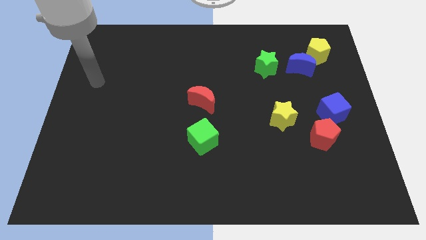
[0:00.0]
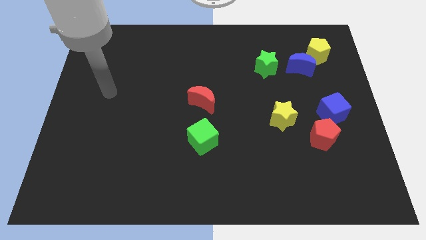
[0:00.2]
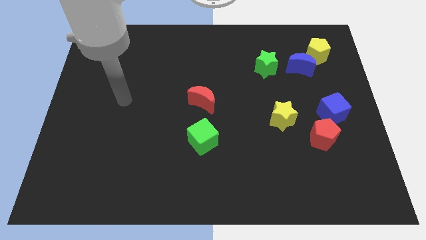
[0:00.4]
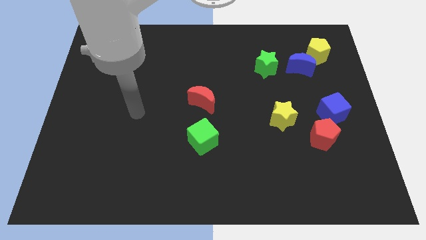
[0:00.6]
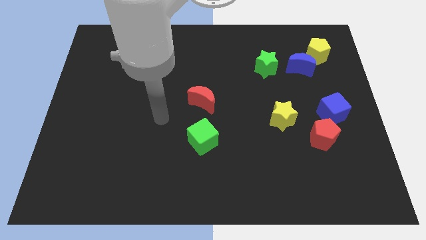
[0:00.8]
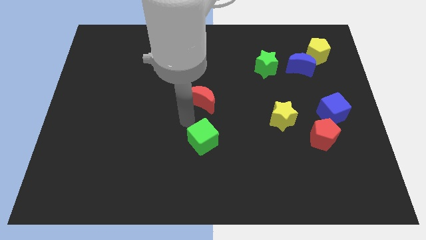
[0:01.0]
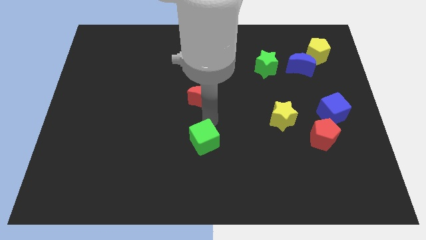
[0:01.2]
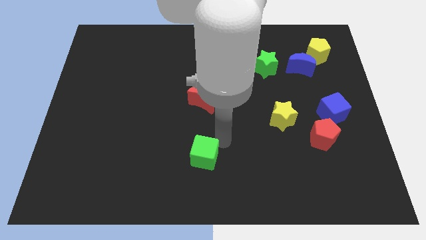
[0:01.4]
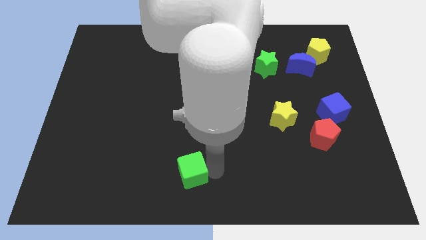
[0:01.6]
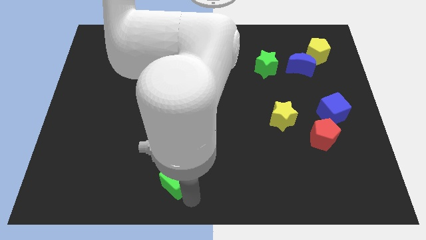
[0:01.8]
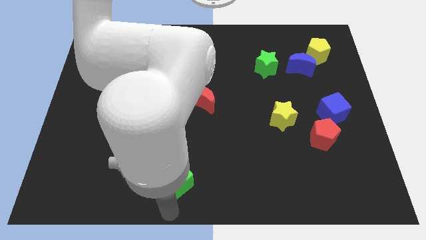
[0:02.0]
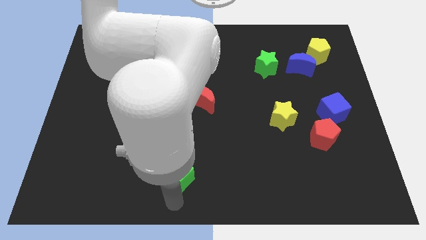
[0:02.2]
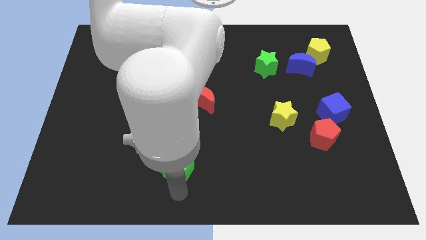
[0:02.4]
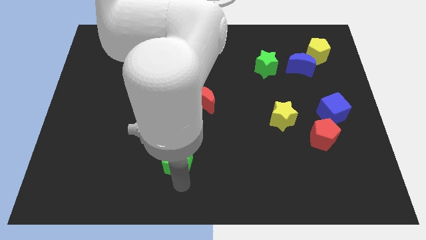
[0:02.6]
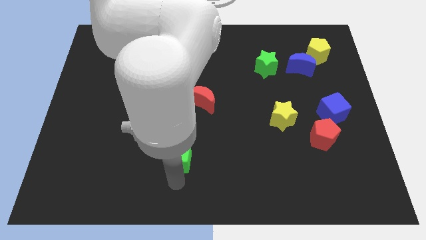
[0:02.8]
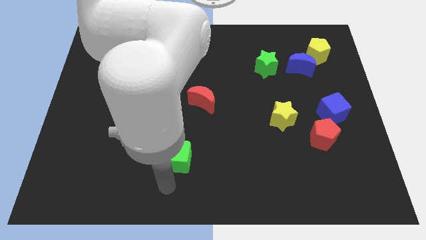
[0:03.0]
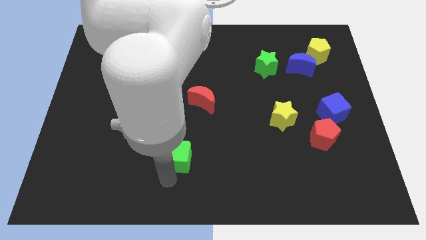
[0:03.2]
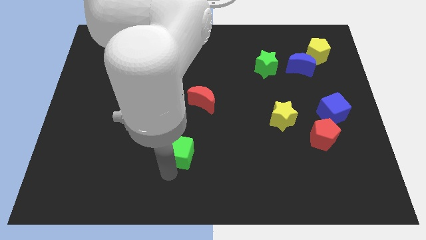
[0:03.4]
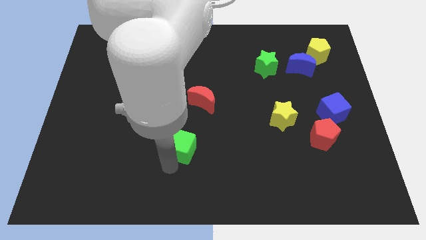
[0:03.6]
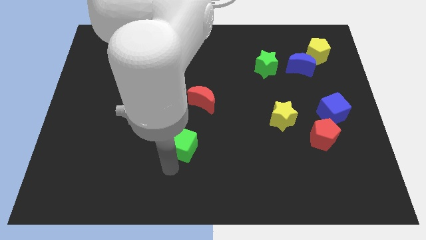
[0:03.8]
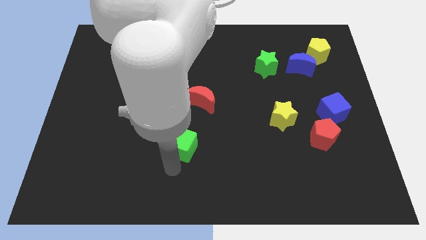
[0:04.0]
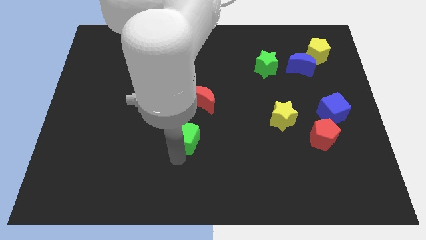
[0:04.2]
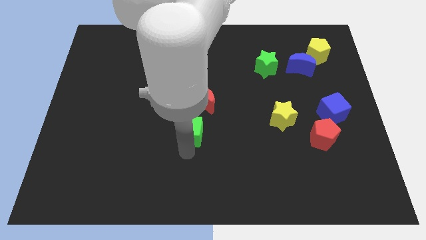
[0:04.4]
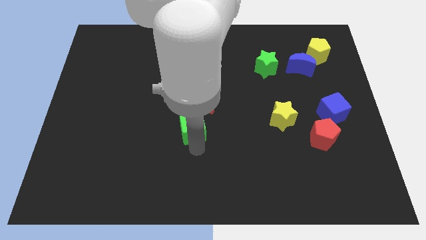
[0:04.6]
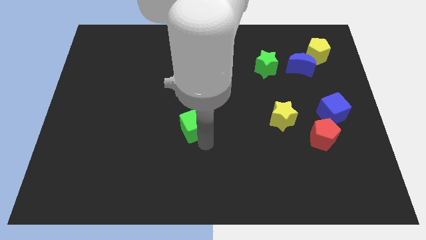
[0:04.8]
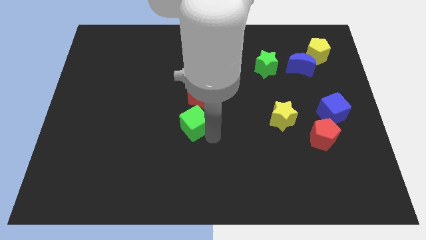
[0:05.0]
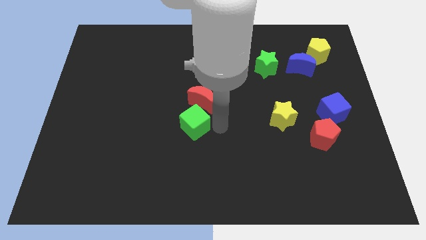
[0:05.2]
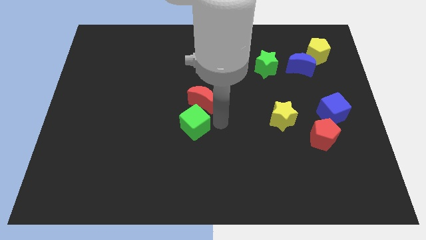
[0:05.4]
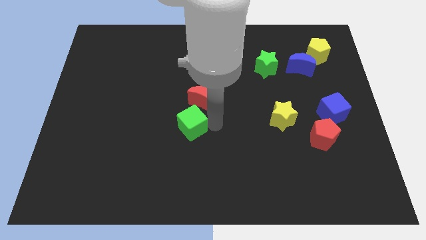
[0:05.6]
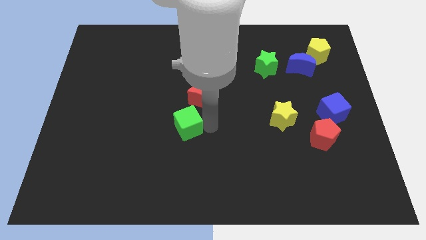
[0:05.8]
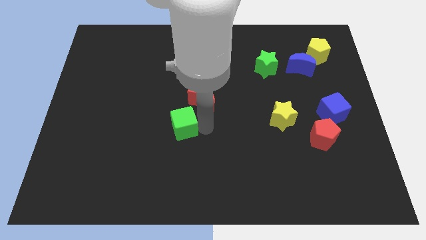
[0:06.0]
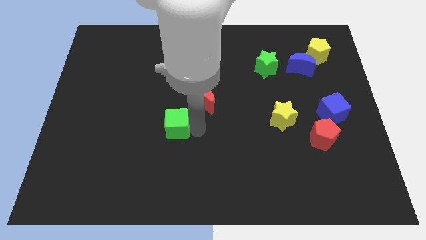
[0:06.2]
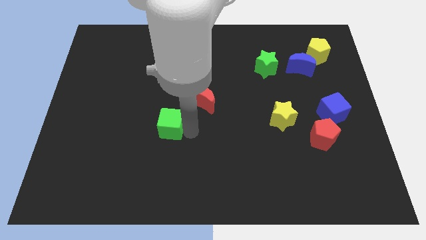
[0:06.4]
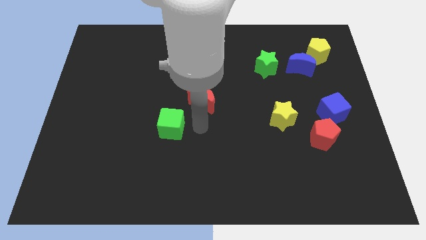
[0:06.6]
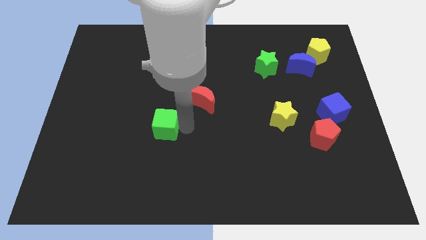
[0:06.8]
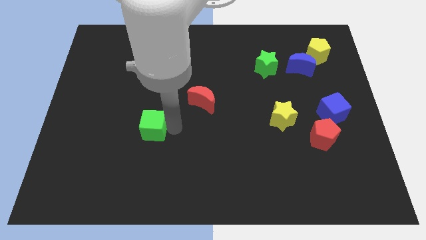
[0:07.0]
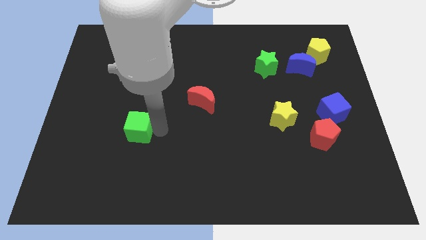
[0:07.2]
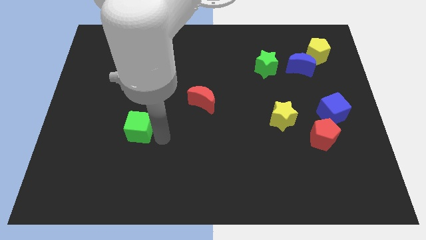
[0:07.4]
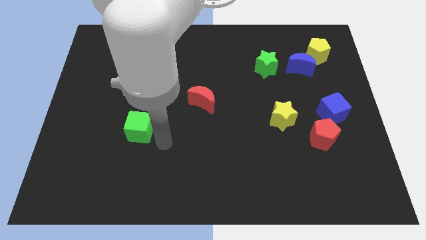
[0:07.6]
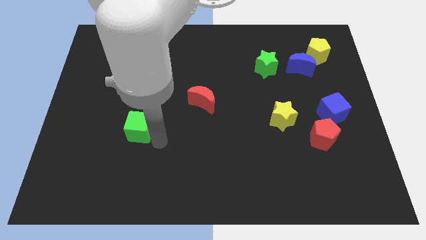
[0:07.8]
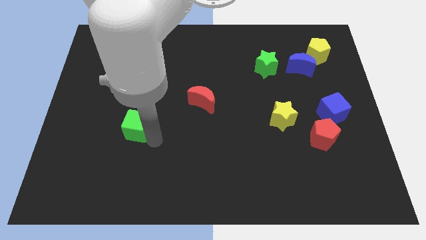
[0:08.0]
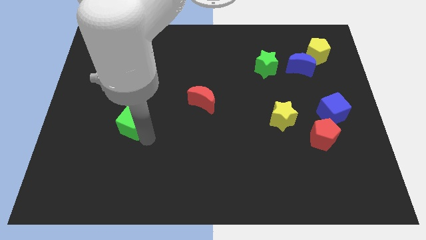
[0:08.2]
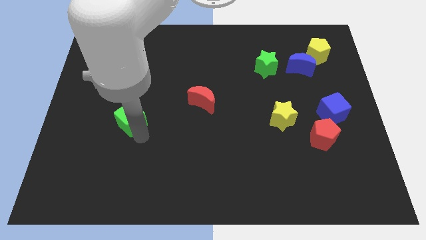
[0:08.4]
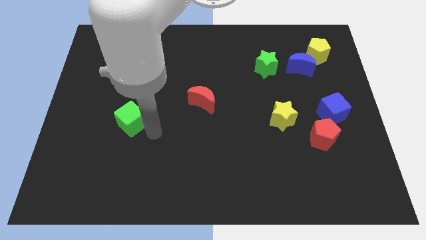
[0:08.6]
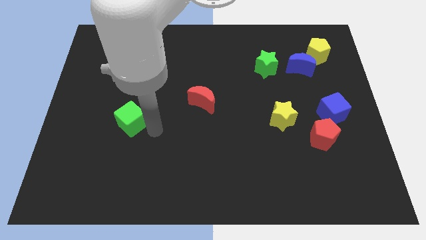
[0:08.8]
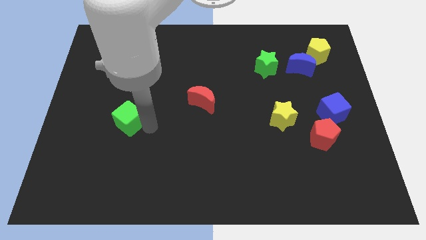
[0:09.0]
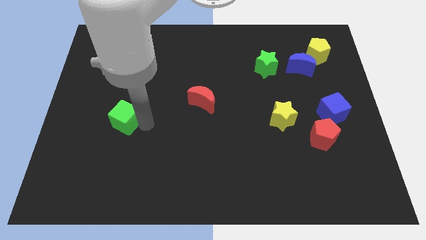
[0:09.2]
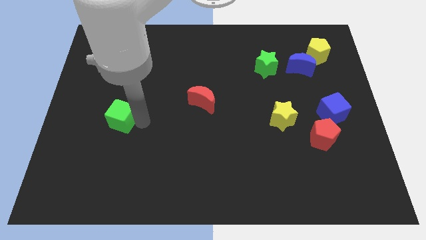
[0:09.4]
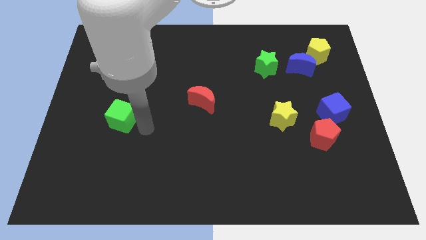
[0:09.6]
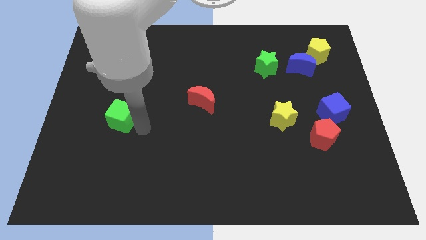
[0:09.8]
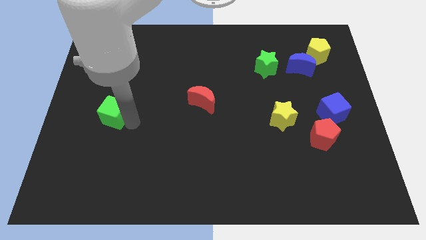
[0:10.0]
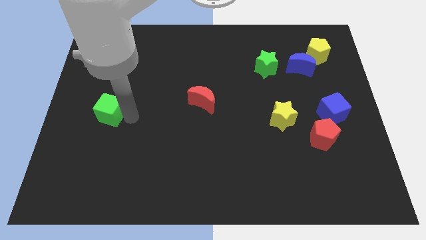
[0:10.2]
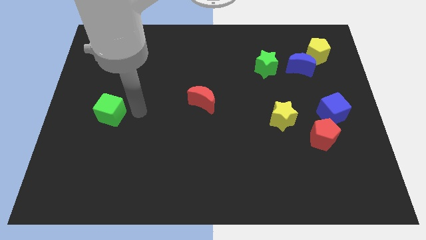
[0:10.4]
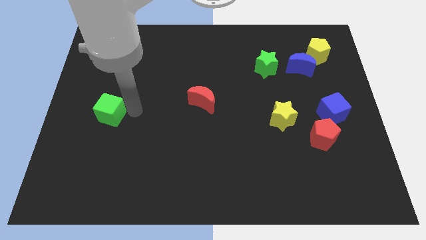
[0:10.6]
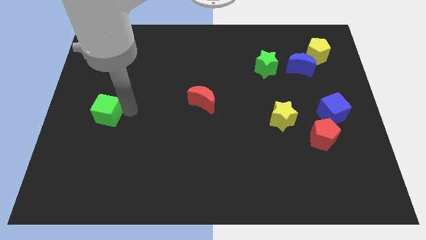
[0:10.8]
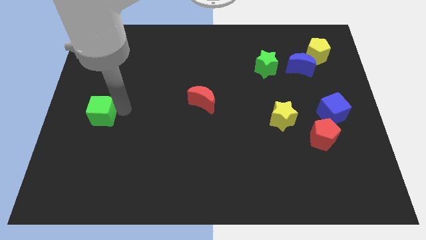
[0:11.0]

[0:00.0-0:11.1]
put the green cube to the left side

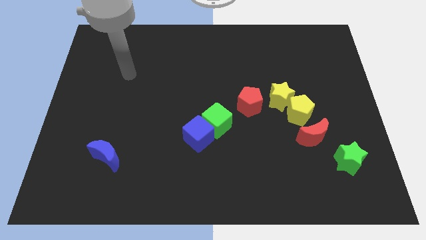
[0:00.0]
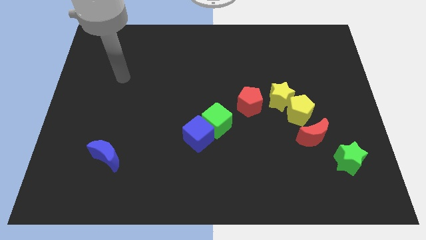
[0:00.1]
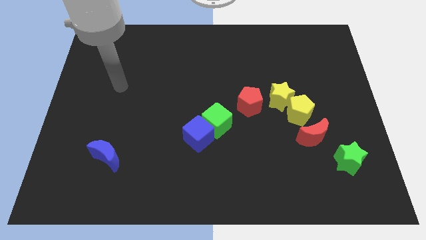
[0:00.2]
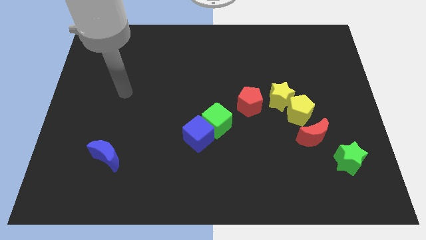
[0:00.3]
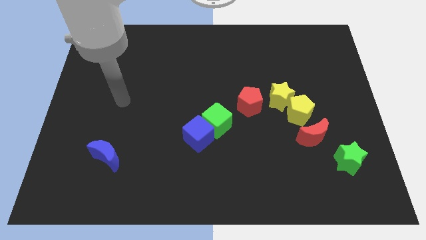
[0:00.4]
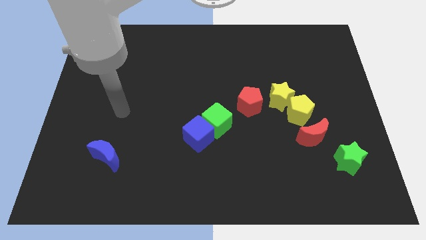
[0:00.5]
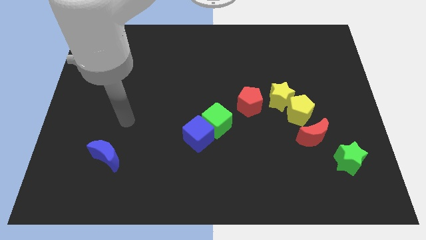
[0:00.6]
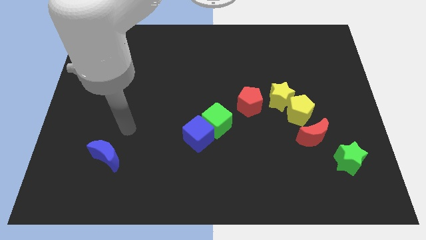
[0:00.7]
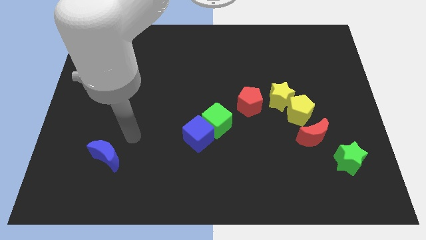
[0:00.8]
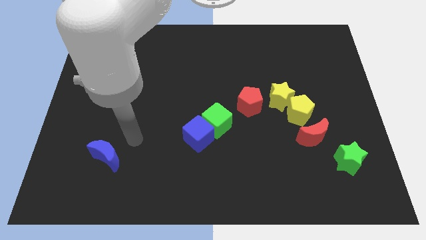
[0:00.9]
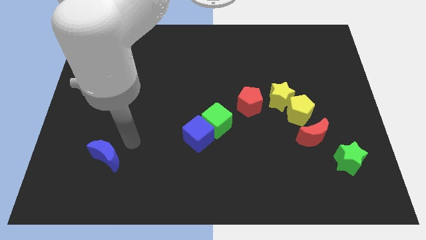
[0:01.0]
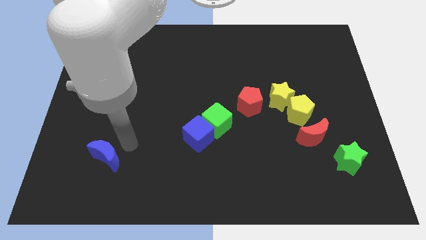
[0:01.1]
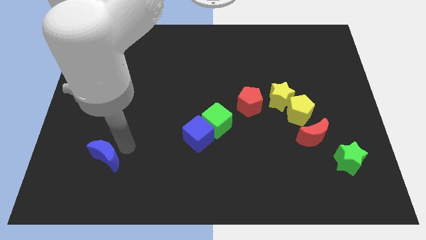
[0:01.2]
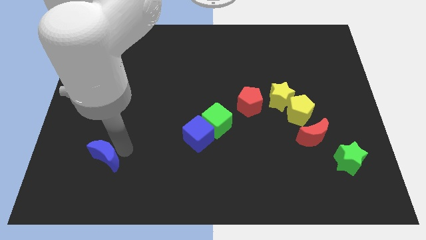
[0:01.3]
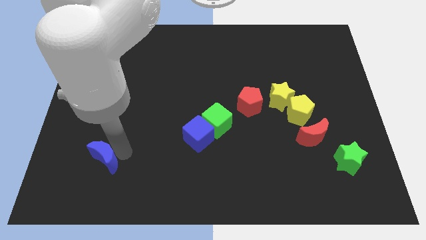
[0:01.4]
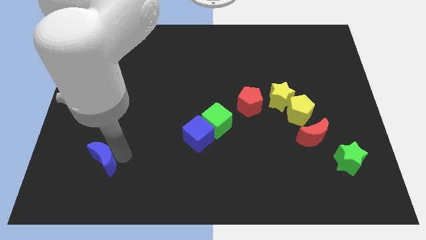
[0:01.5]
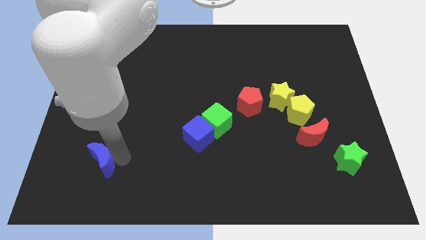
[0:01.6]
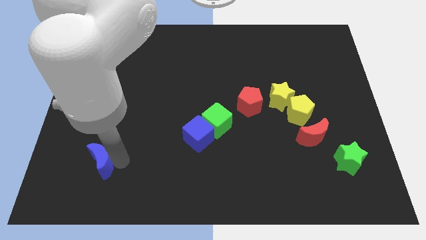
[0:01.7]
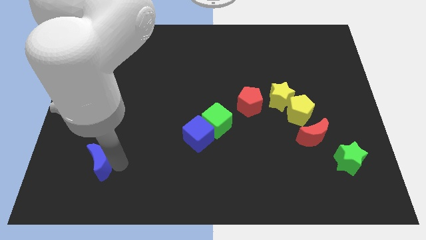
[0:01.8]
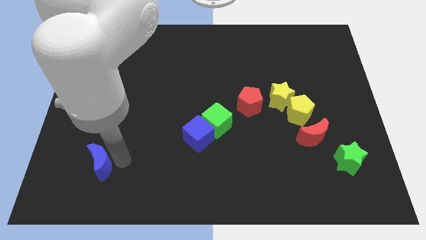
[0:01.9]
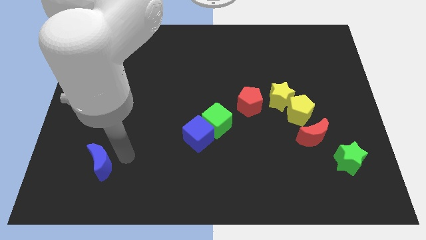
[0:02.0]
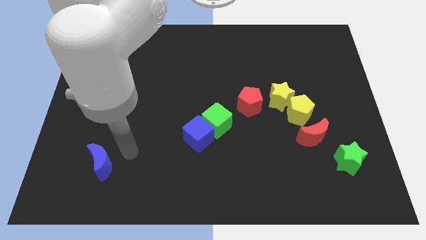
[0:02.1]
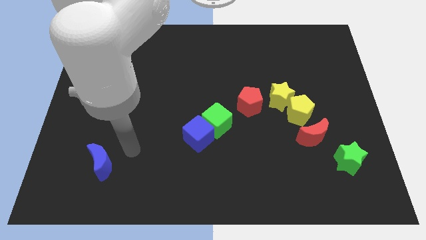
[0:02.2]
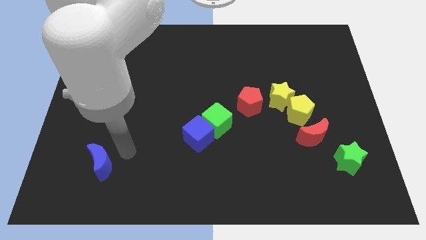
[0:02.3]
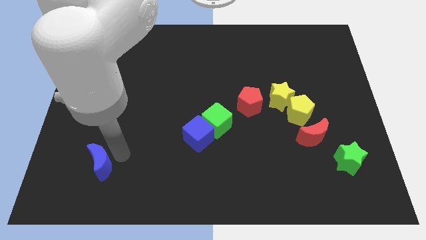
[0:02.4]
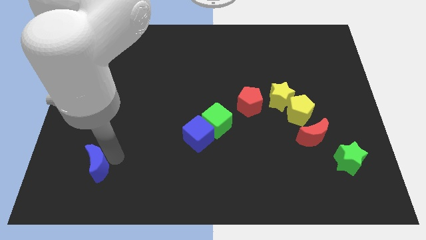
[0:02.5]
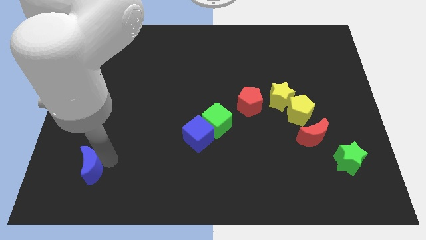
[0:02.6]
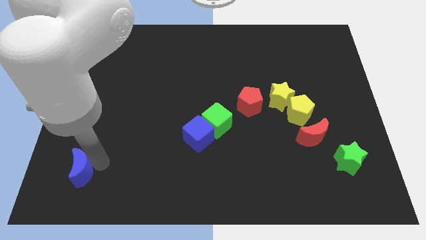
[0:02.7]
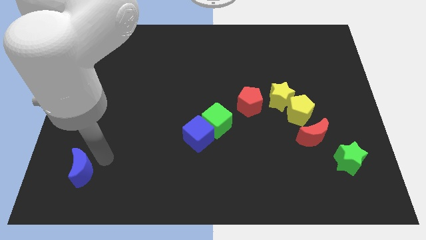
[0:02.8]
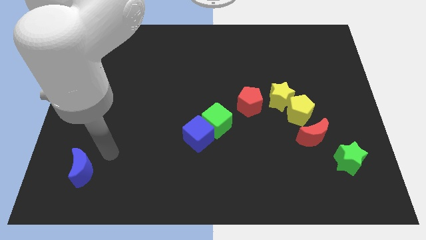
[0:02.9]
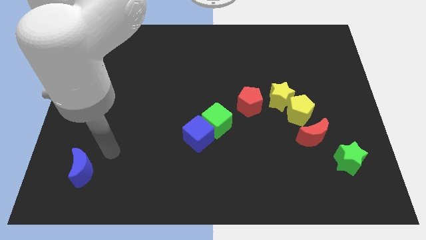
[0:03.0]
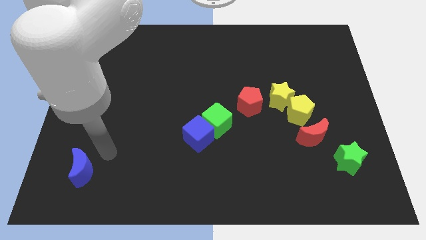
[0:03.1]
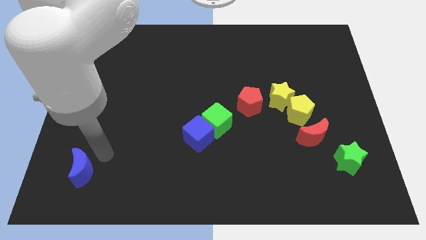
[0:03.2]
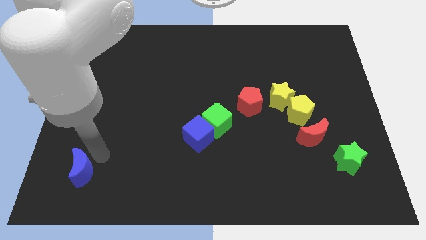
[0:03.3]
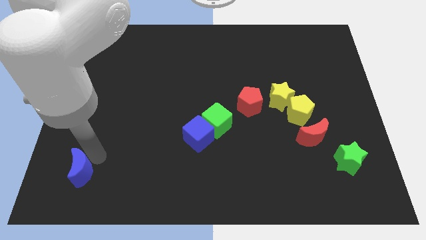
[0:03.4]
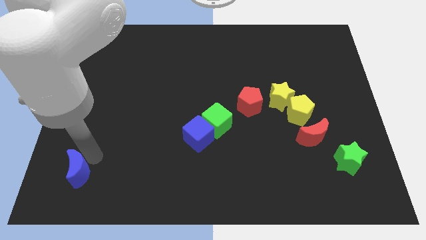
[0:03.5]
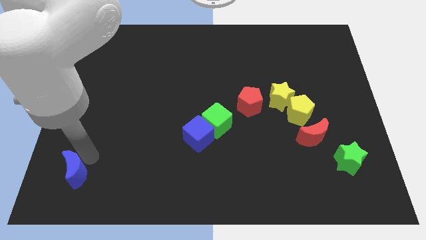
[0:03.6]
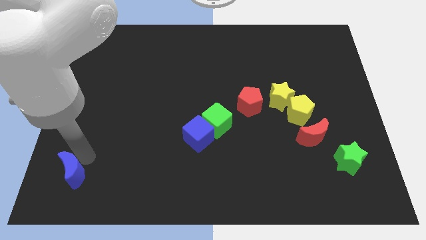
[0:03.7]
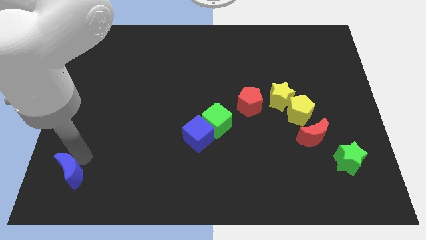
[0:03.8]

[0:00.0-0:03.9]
put the blue moon to the lower left corner
